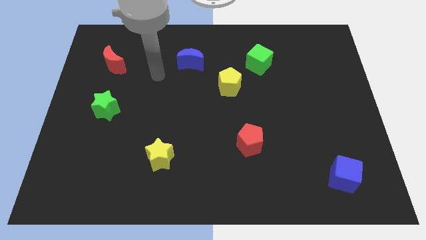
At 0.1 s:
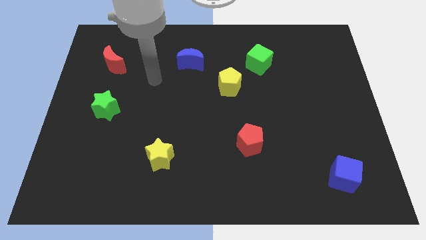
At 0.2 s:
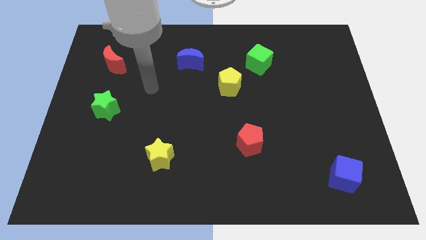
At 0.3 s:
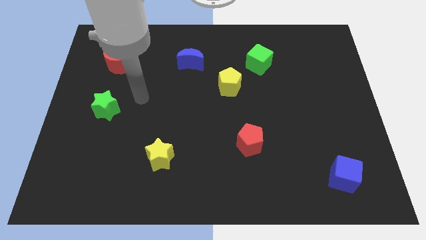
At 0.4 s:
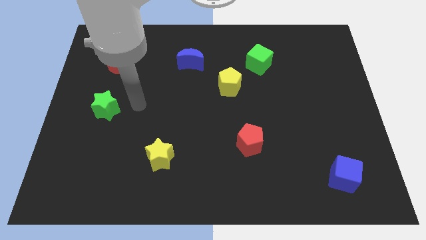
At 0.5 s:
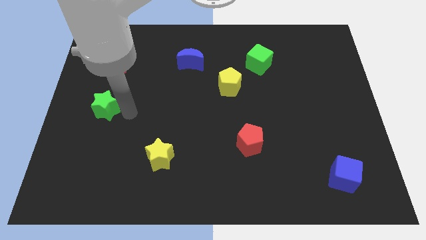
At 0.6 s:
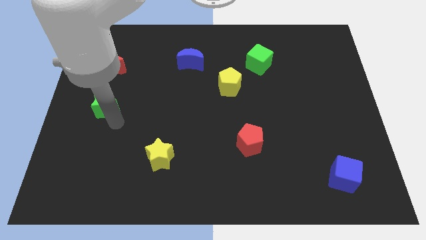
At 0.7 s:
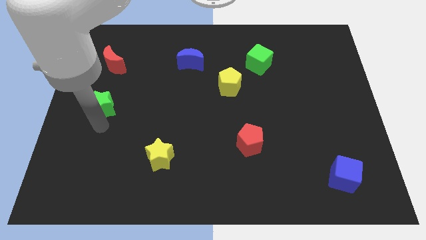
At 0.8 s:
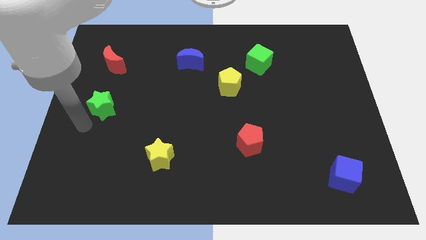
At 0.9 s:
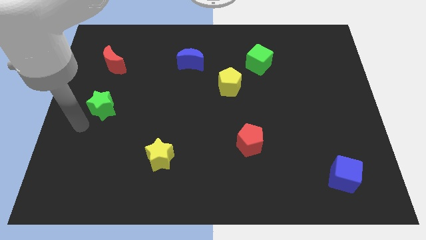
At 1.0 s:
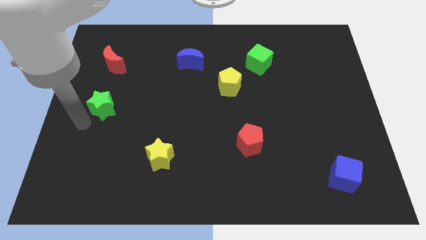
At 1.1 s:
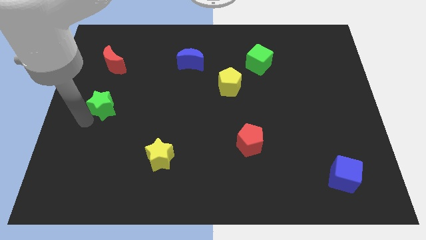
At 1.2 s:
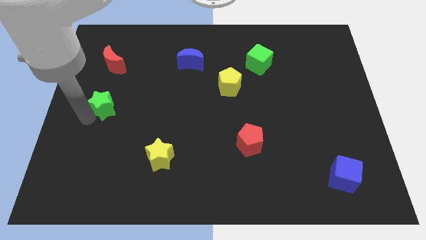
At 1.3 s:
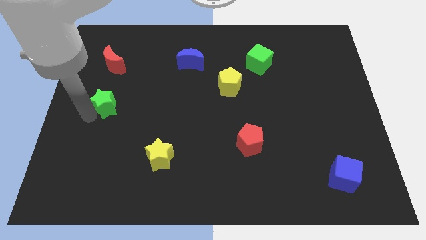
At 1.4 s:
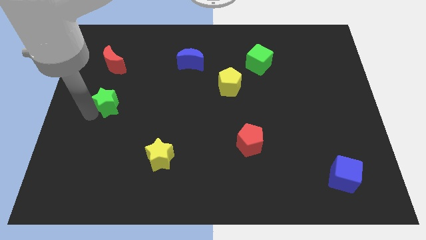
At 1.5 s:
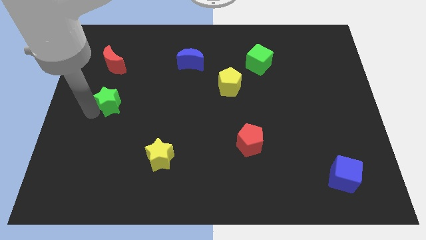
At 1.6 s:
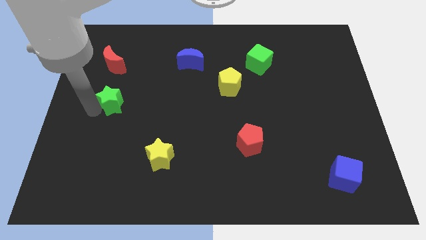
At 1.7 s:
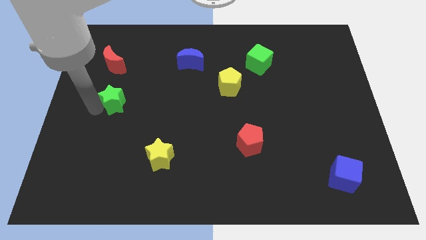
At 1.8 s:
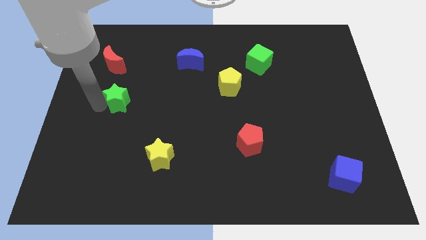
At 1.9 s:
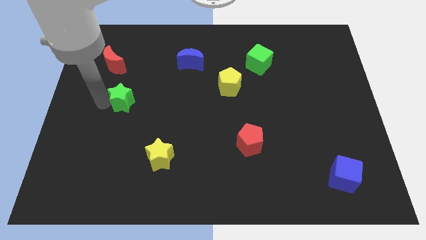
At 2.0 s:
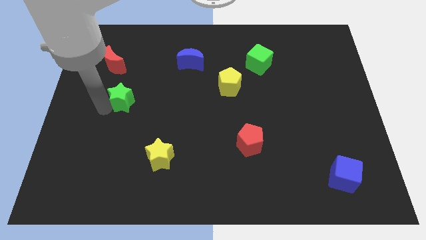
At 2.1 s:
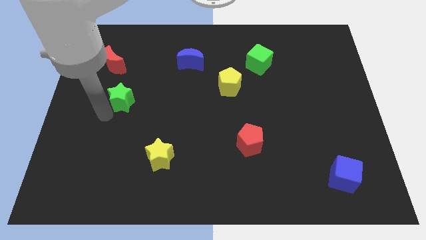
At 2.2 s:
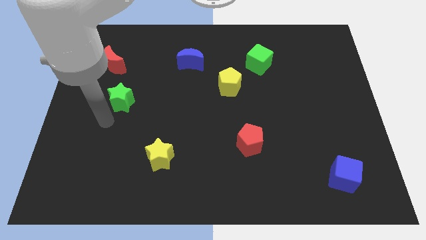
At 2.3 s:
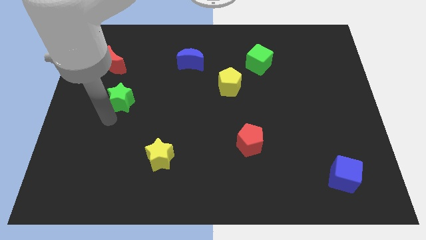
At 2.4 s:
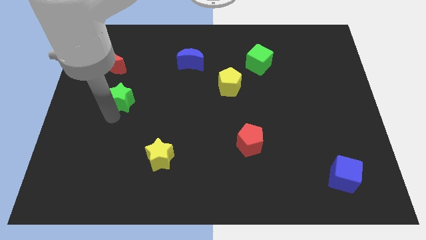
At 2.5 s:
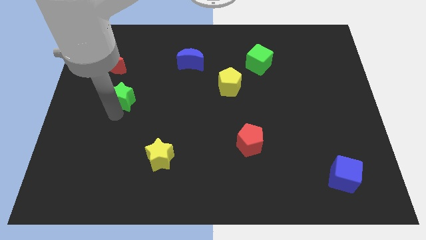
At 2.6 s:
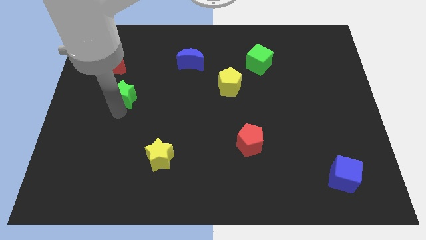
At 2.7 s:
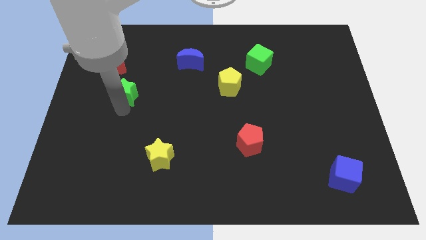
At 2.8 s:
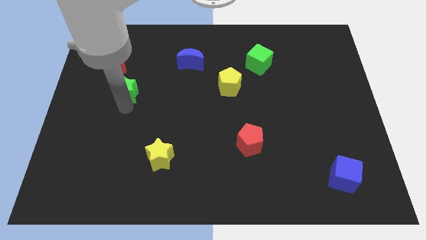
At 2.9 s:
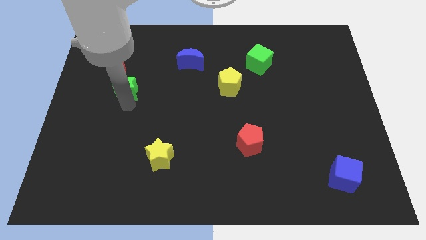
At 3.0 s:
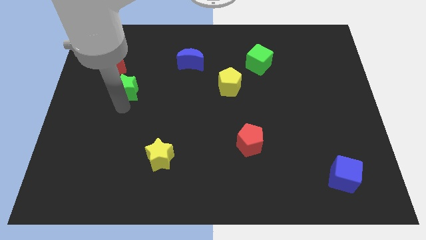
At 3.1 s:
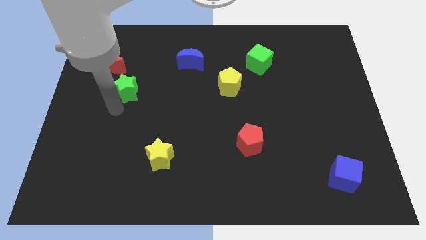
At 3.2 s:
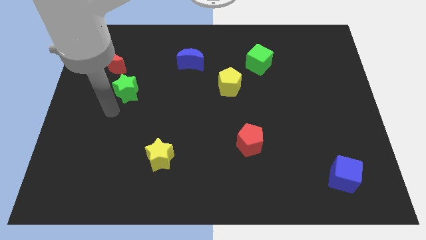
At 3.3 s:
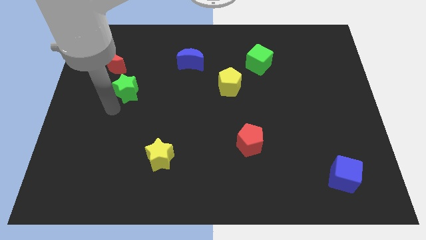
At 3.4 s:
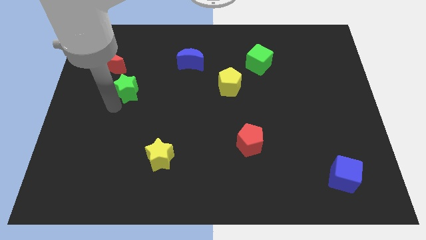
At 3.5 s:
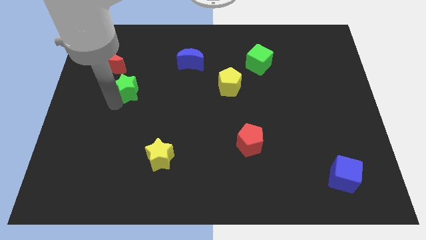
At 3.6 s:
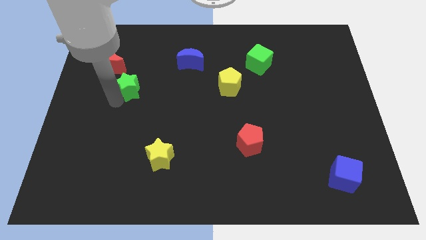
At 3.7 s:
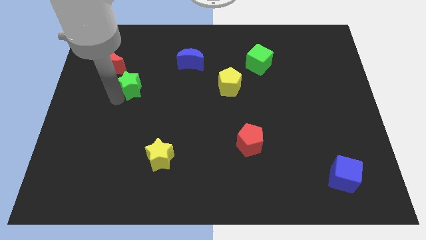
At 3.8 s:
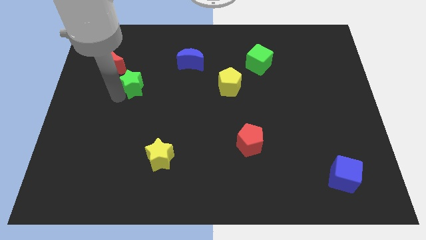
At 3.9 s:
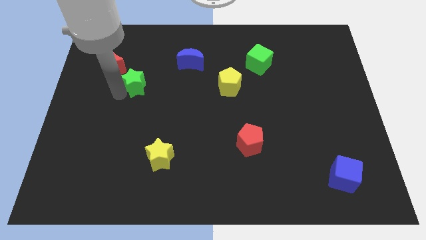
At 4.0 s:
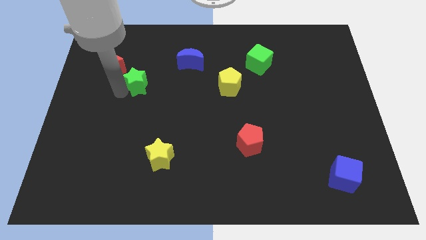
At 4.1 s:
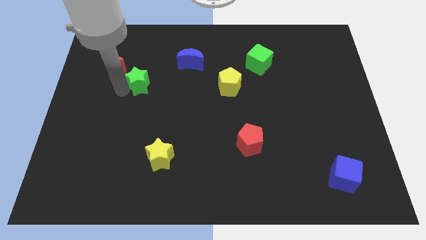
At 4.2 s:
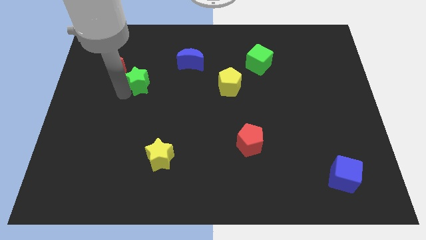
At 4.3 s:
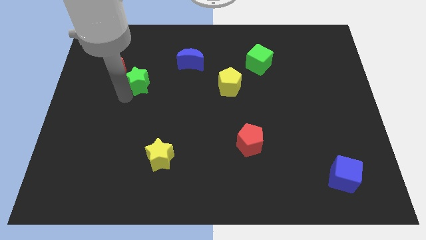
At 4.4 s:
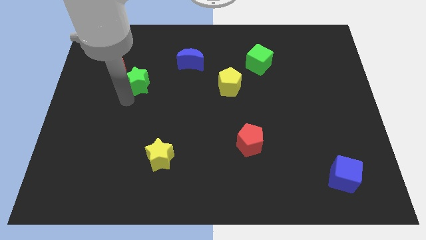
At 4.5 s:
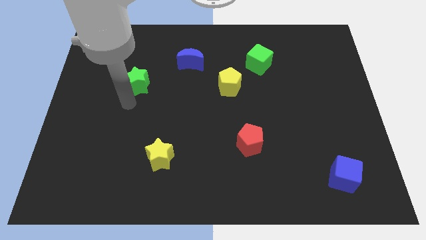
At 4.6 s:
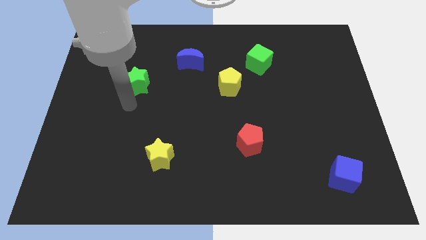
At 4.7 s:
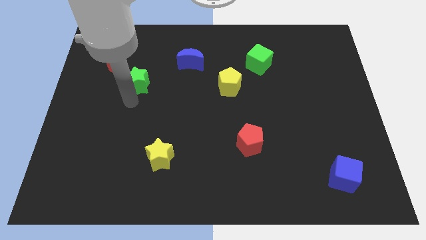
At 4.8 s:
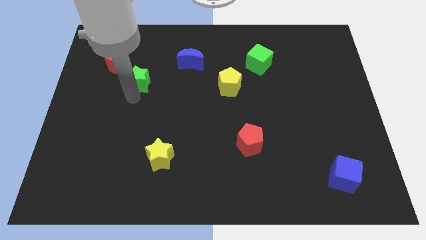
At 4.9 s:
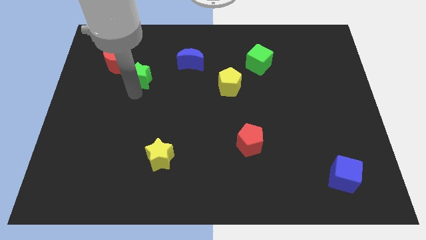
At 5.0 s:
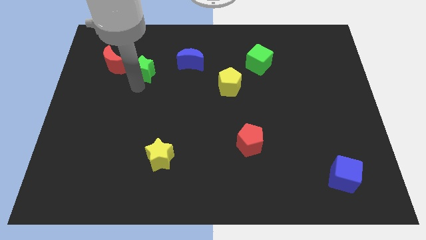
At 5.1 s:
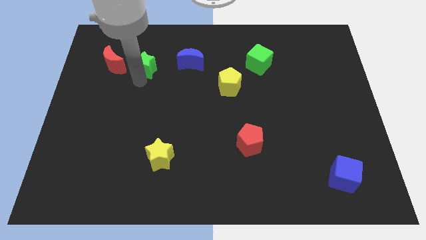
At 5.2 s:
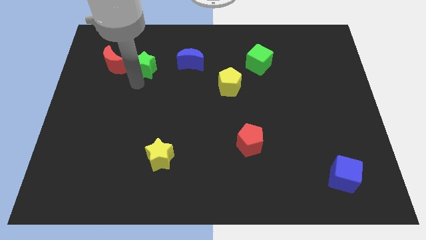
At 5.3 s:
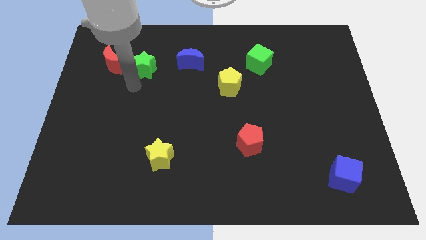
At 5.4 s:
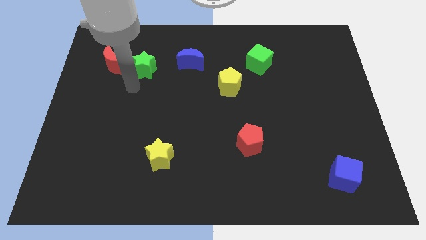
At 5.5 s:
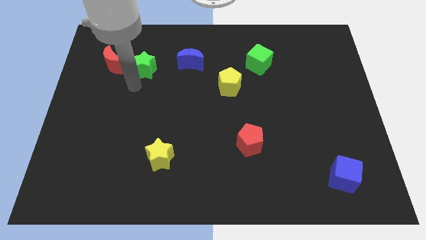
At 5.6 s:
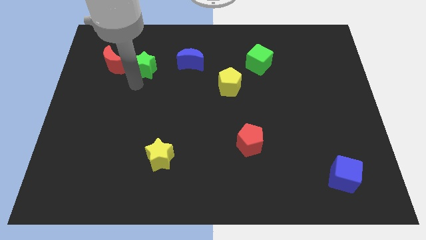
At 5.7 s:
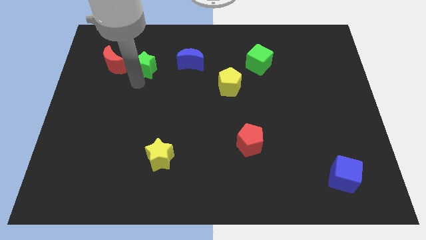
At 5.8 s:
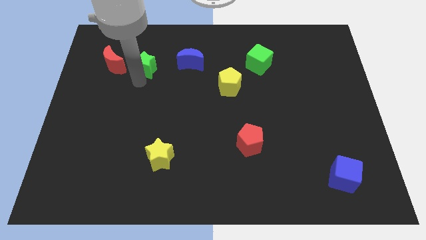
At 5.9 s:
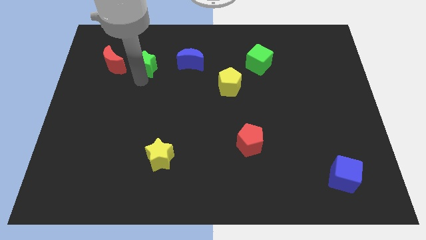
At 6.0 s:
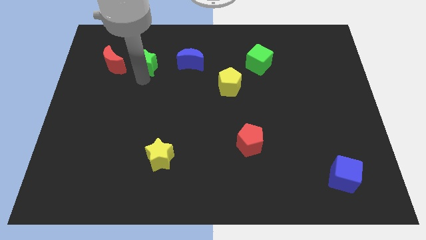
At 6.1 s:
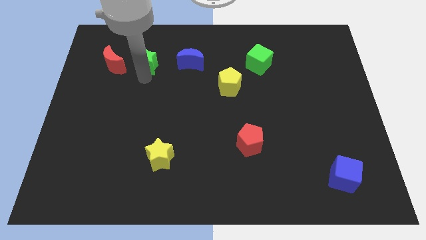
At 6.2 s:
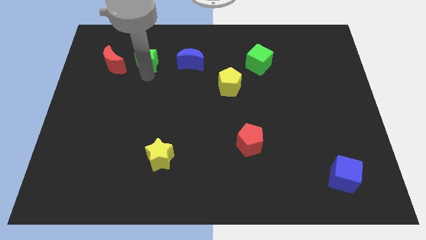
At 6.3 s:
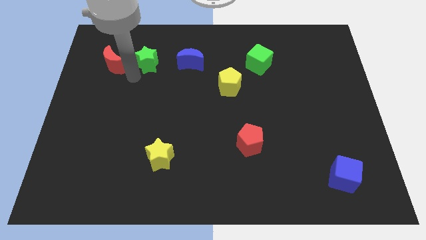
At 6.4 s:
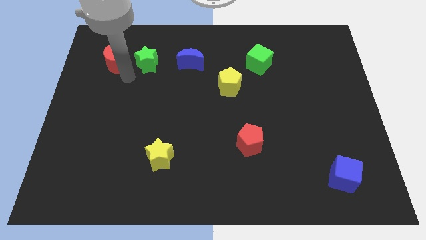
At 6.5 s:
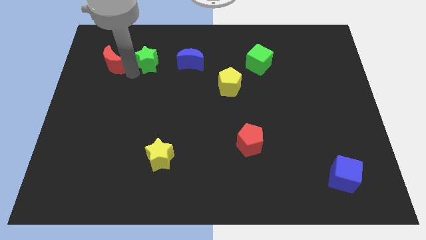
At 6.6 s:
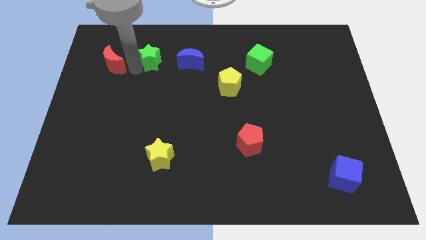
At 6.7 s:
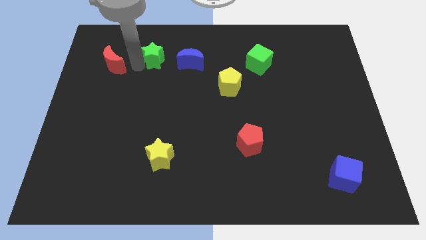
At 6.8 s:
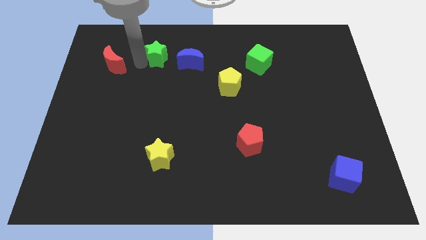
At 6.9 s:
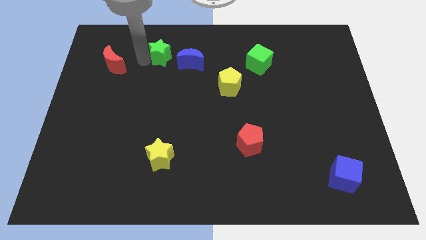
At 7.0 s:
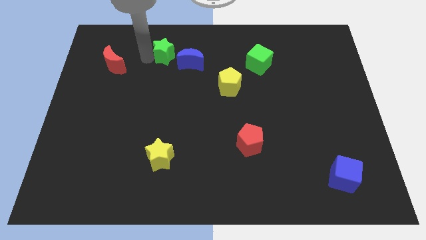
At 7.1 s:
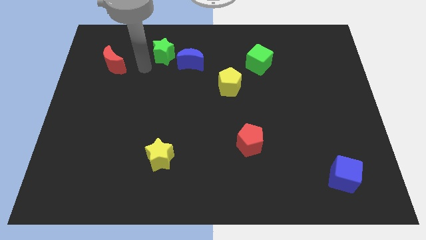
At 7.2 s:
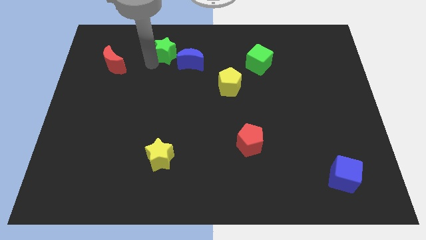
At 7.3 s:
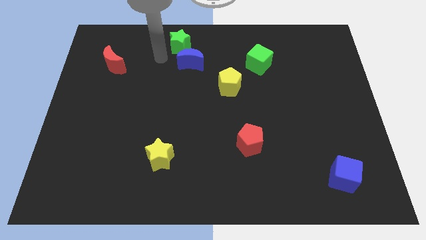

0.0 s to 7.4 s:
slide the green star to the towards your base
